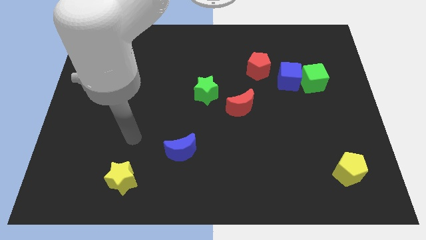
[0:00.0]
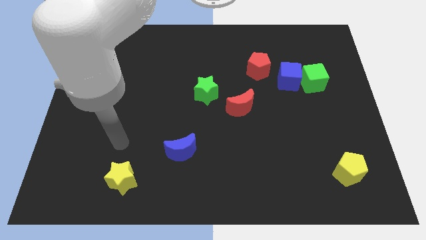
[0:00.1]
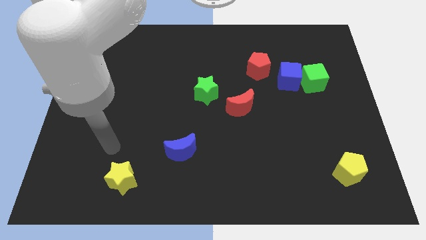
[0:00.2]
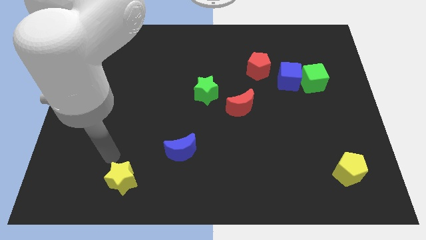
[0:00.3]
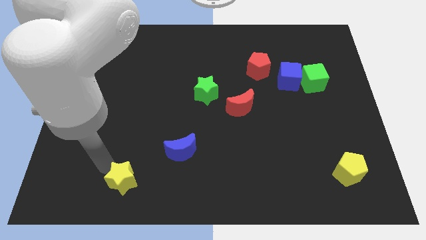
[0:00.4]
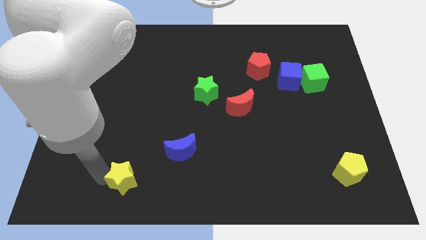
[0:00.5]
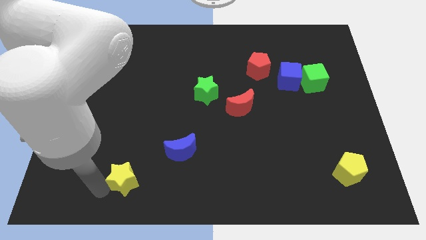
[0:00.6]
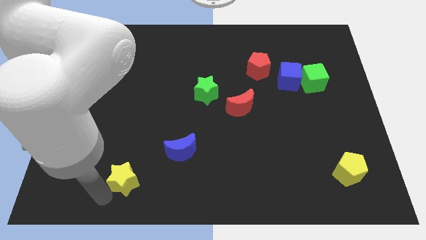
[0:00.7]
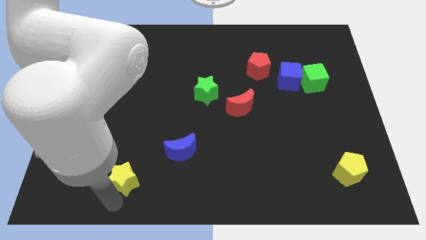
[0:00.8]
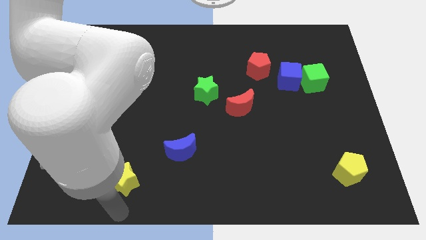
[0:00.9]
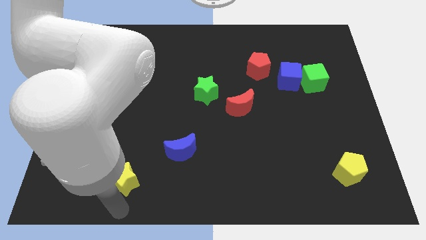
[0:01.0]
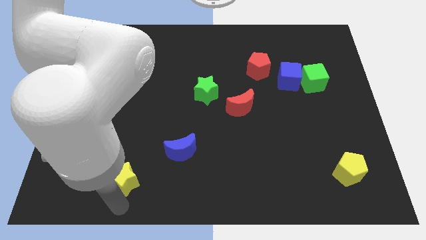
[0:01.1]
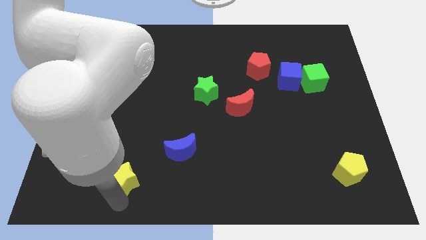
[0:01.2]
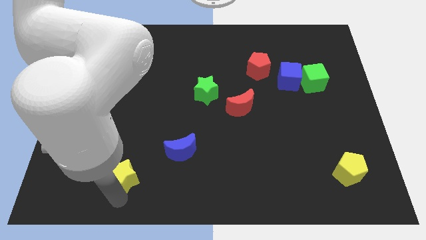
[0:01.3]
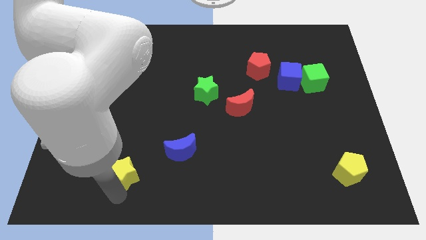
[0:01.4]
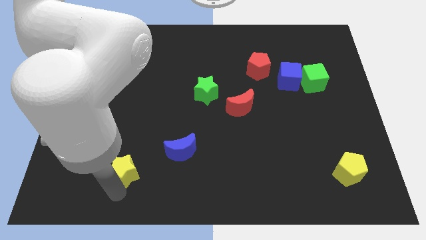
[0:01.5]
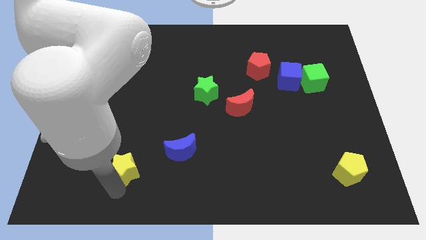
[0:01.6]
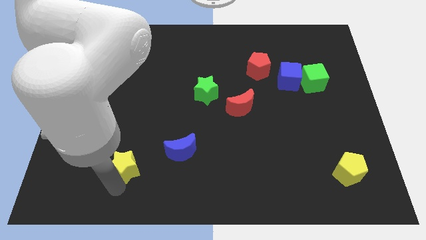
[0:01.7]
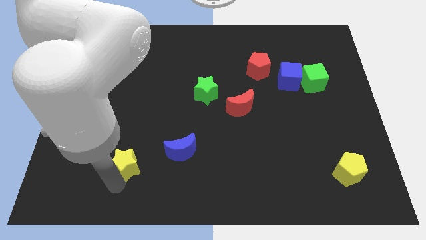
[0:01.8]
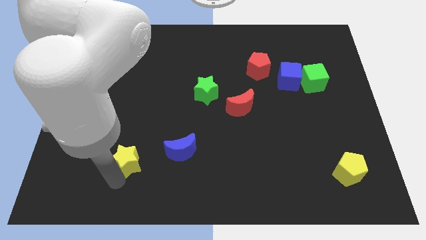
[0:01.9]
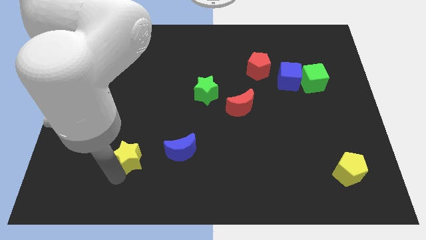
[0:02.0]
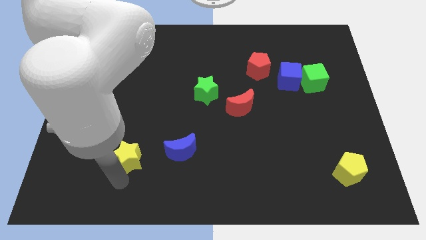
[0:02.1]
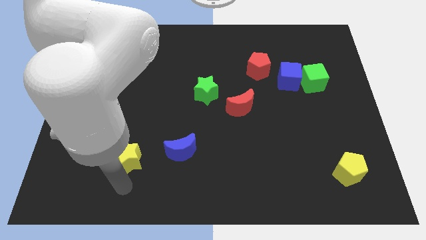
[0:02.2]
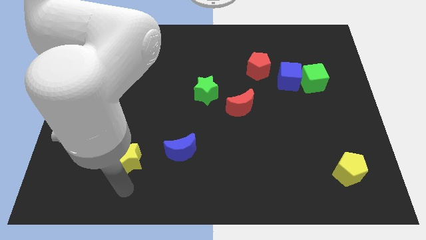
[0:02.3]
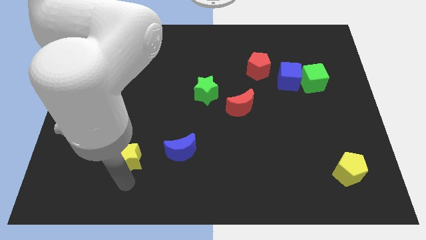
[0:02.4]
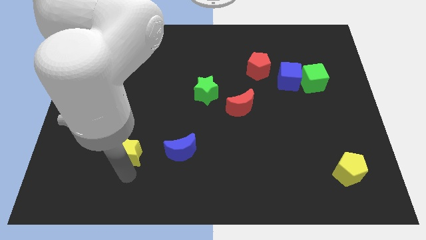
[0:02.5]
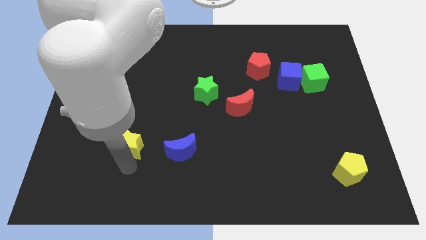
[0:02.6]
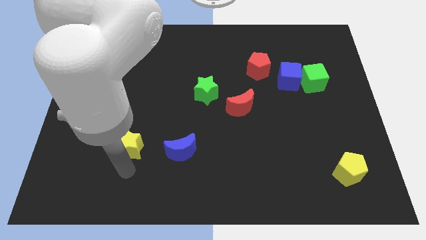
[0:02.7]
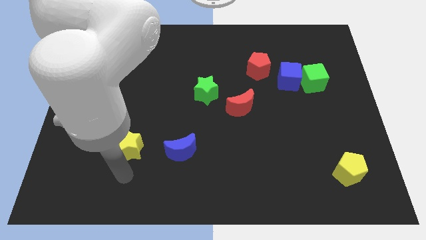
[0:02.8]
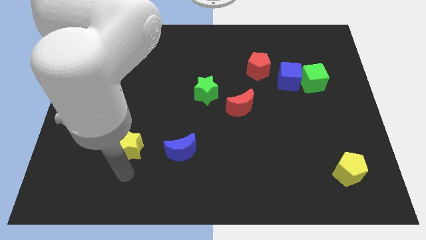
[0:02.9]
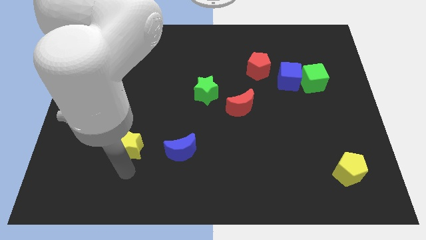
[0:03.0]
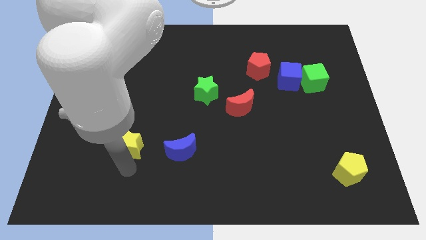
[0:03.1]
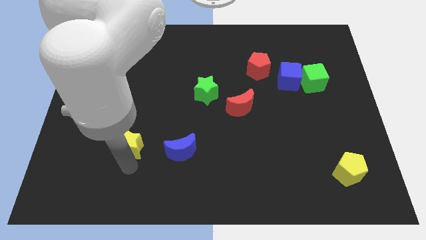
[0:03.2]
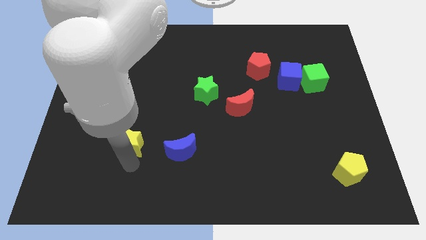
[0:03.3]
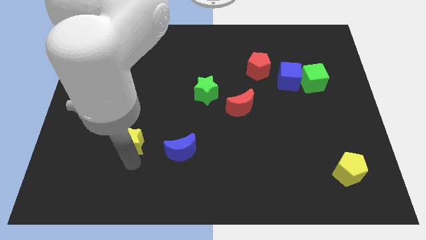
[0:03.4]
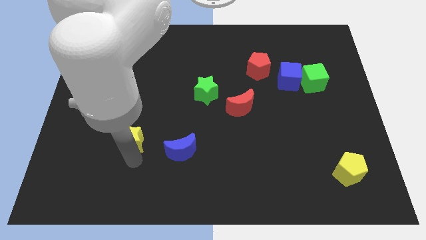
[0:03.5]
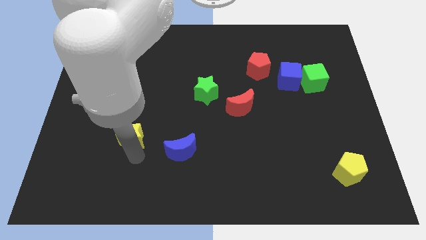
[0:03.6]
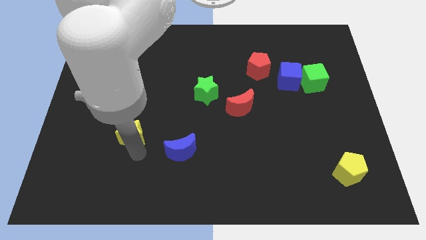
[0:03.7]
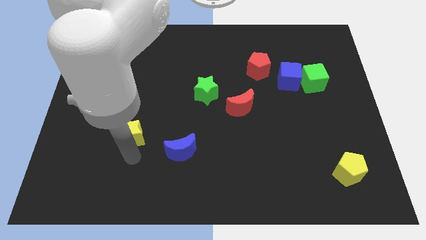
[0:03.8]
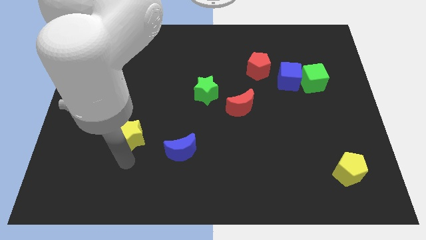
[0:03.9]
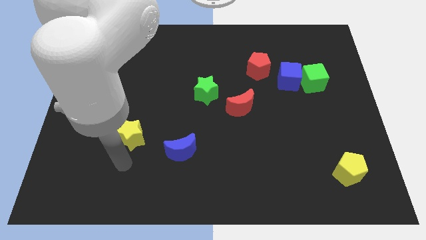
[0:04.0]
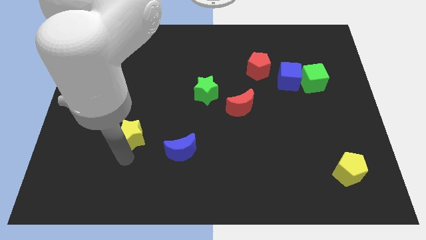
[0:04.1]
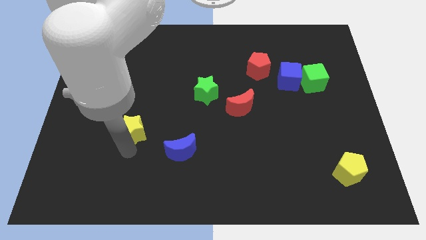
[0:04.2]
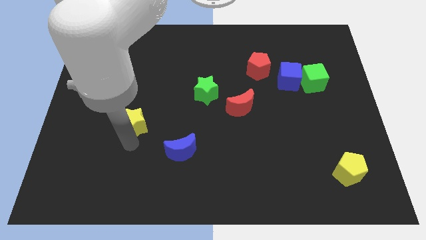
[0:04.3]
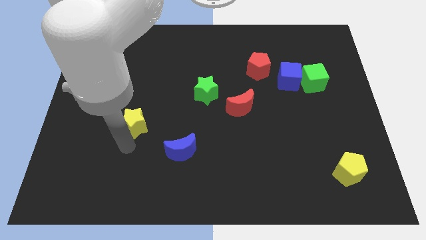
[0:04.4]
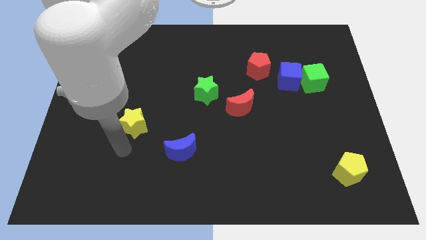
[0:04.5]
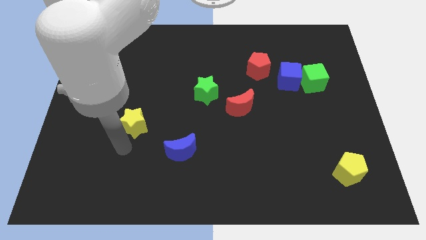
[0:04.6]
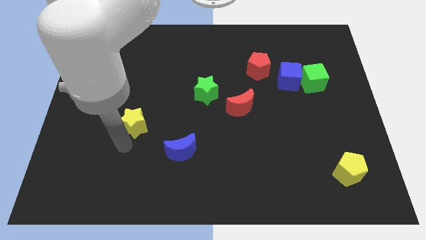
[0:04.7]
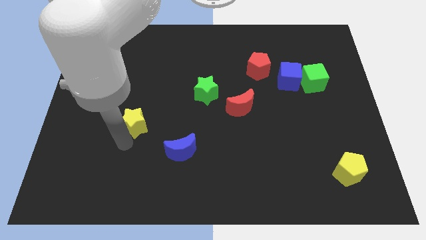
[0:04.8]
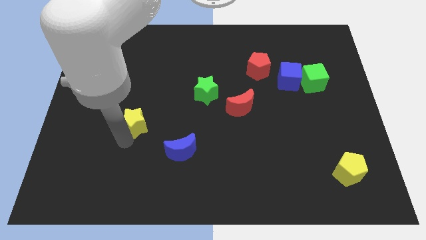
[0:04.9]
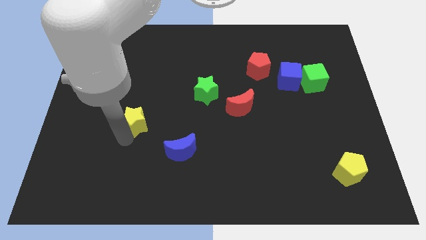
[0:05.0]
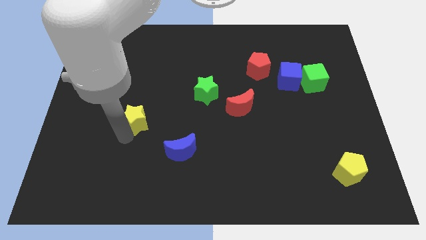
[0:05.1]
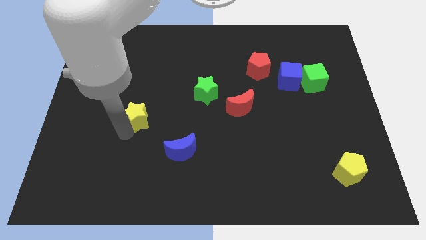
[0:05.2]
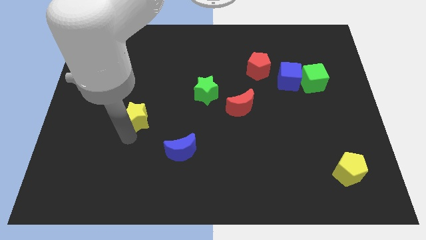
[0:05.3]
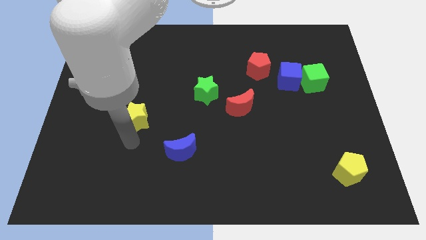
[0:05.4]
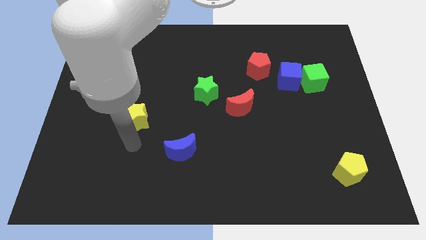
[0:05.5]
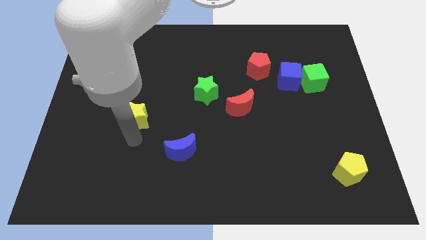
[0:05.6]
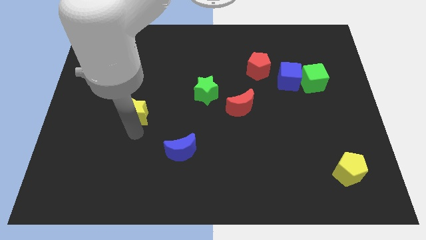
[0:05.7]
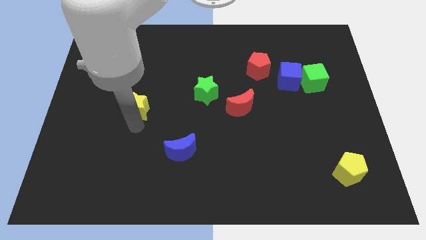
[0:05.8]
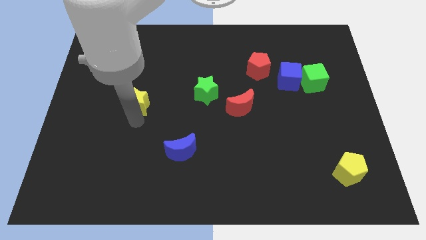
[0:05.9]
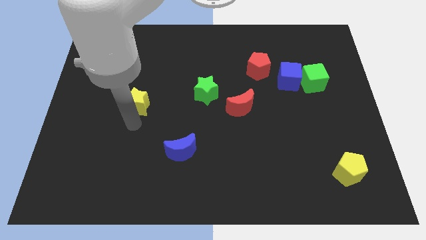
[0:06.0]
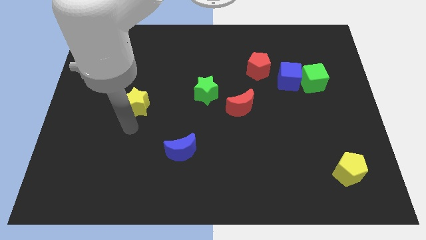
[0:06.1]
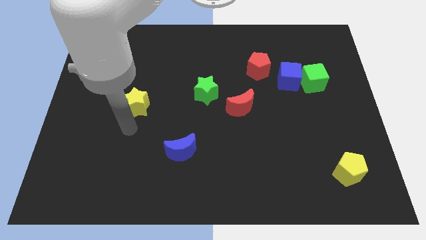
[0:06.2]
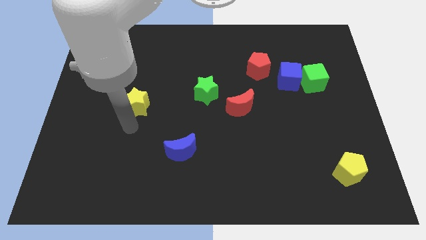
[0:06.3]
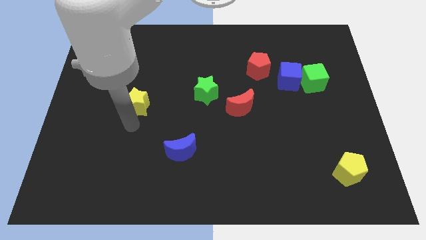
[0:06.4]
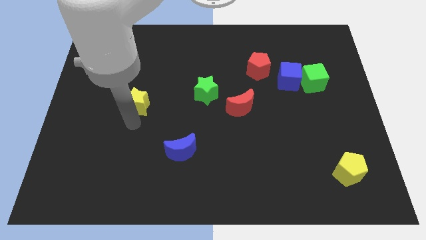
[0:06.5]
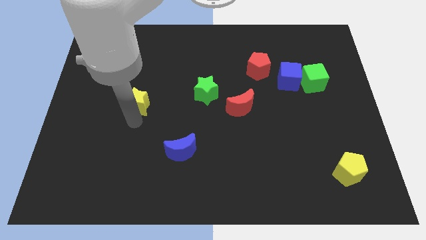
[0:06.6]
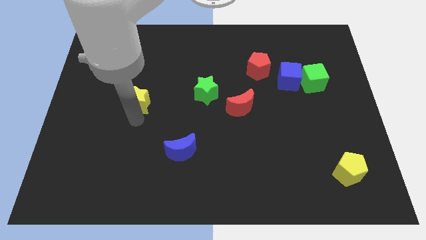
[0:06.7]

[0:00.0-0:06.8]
move the yellow star upwards

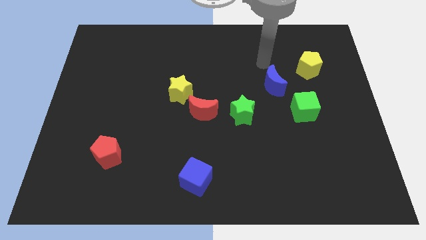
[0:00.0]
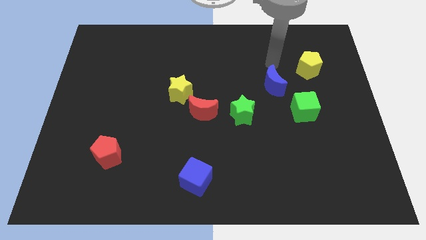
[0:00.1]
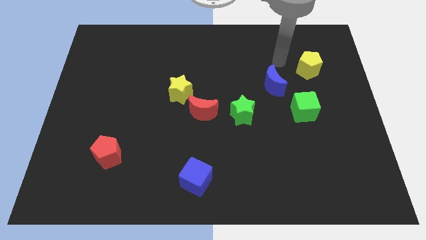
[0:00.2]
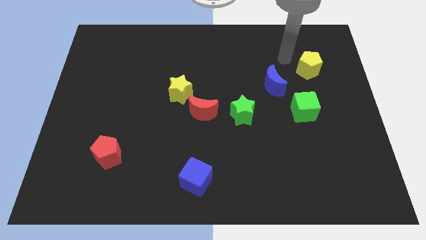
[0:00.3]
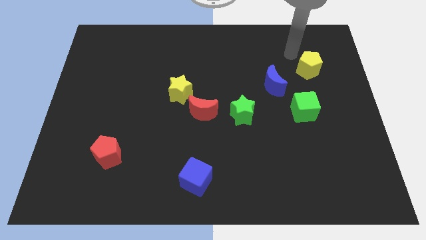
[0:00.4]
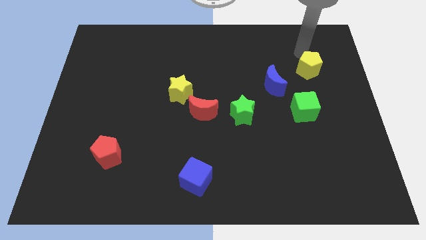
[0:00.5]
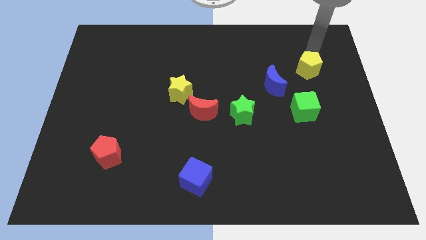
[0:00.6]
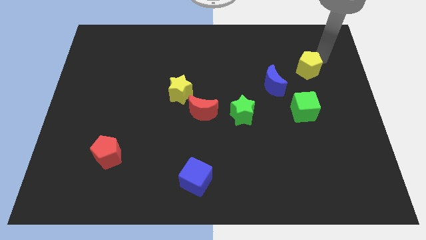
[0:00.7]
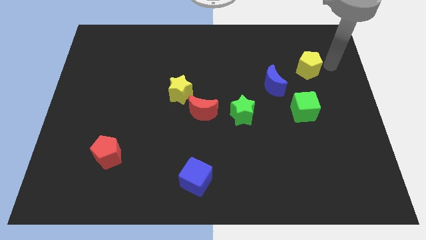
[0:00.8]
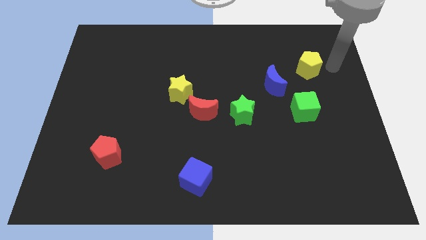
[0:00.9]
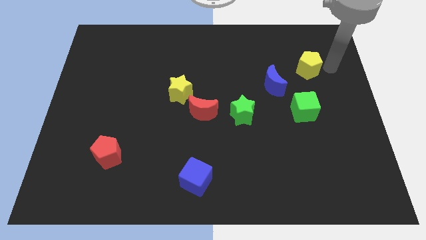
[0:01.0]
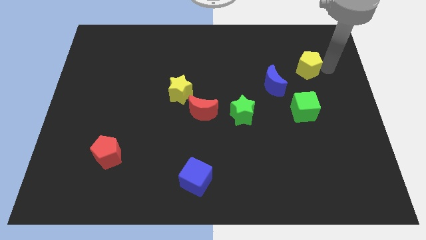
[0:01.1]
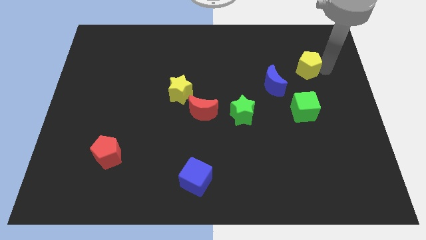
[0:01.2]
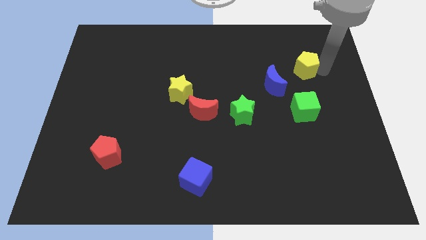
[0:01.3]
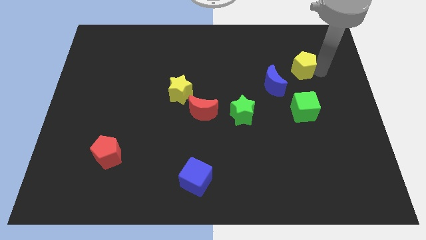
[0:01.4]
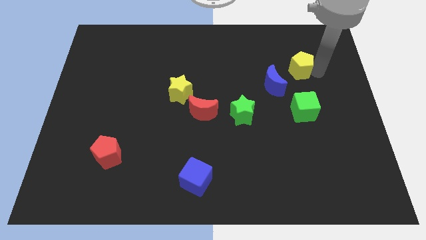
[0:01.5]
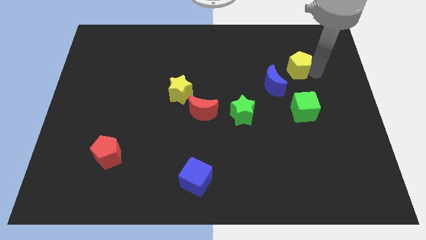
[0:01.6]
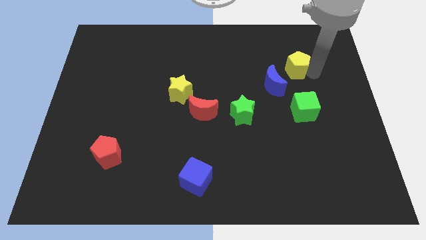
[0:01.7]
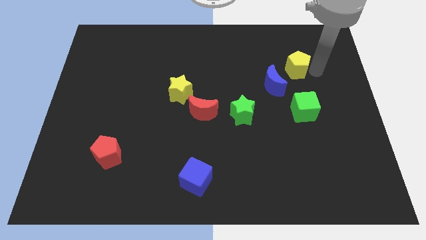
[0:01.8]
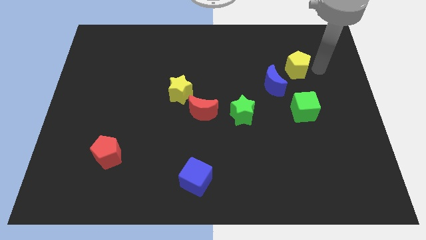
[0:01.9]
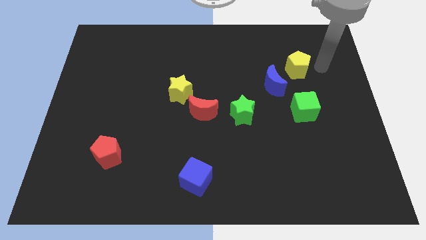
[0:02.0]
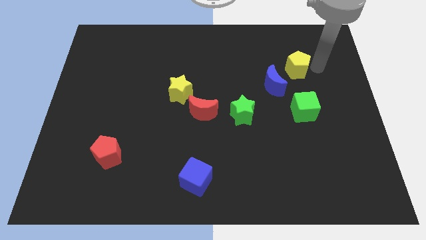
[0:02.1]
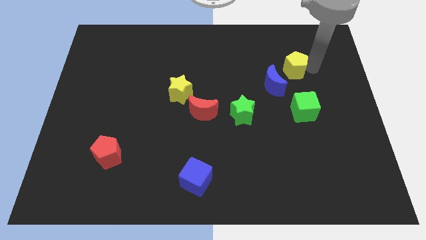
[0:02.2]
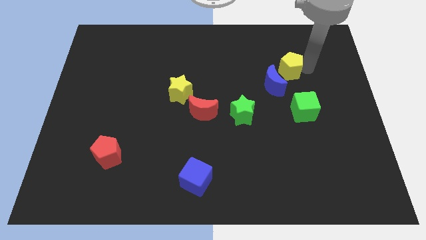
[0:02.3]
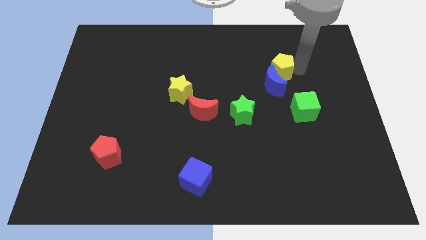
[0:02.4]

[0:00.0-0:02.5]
slightly slide the yellow pentagon to the left
